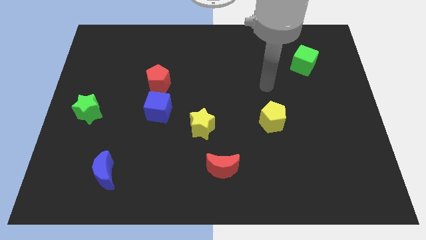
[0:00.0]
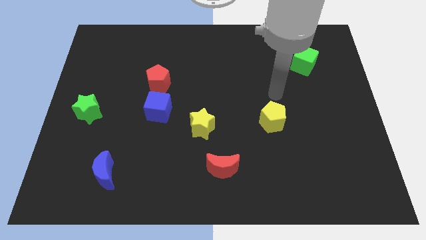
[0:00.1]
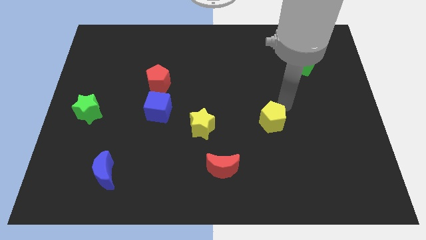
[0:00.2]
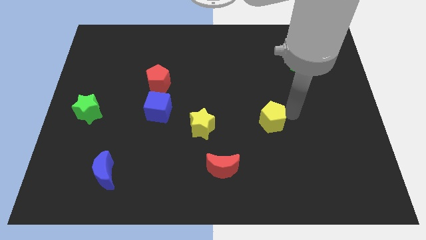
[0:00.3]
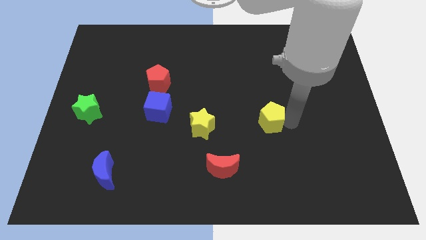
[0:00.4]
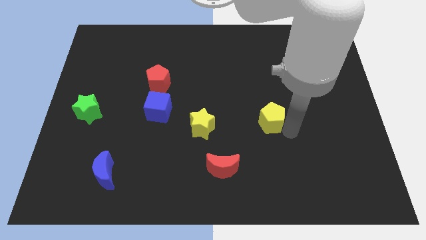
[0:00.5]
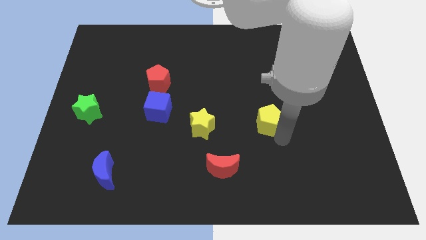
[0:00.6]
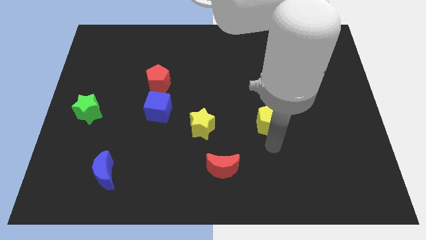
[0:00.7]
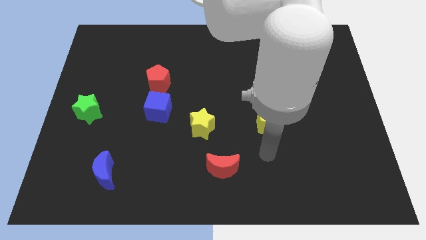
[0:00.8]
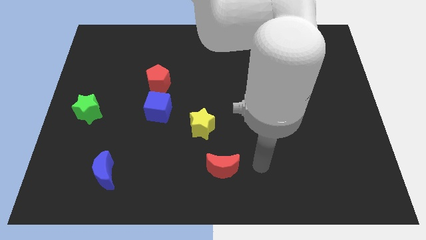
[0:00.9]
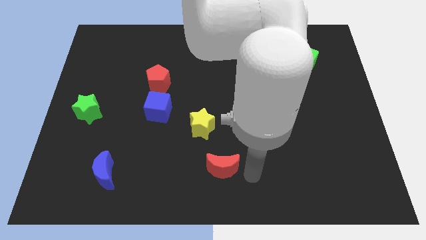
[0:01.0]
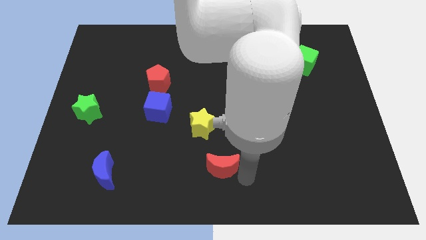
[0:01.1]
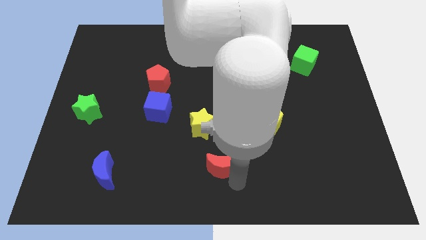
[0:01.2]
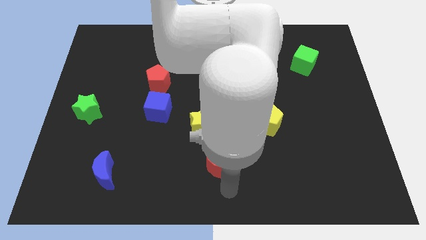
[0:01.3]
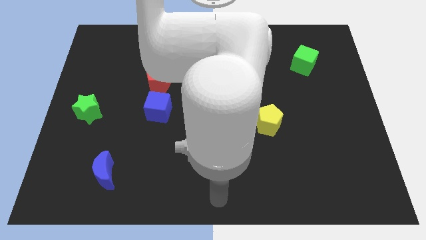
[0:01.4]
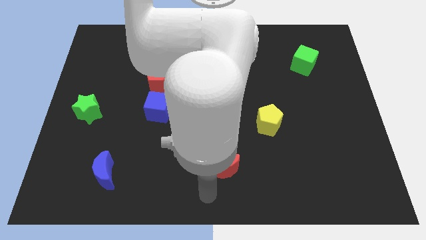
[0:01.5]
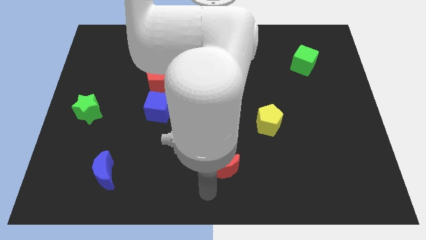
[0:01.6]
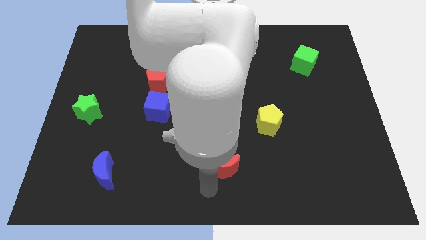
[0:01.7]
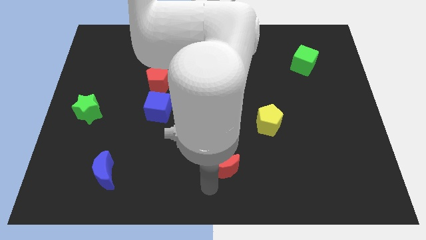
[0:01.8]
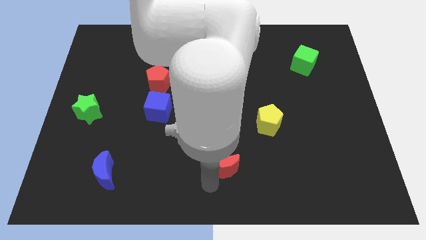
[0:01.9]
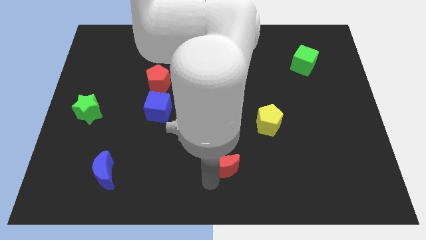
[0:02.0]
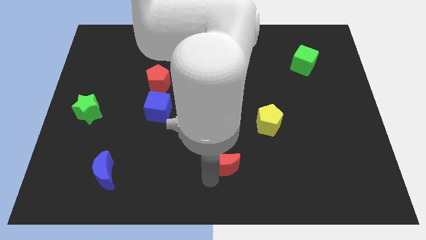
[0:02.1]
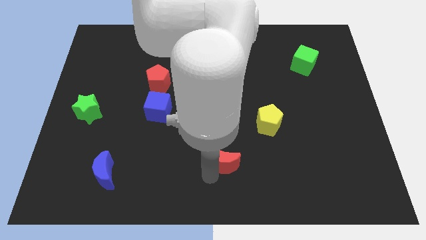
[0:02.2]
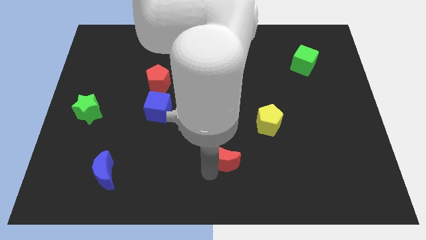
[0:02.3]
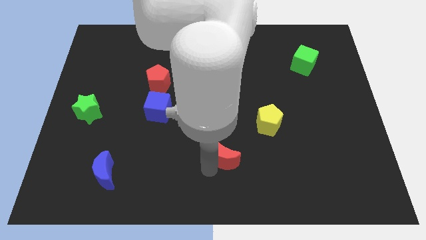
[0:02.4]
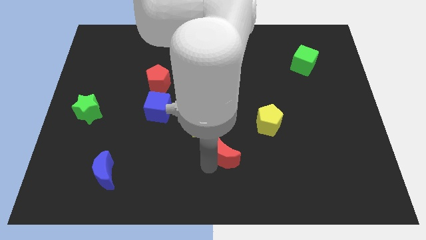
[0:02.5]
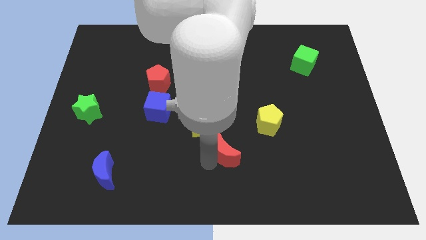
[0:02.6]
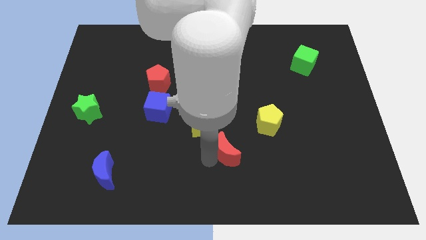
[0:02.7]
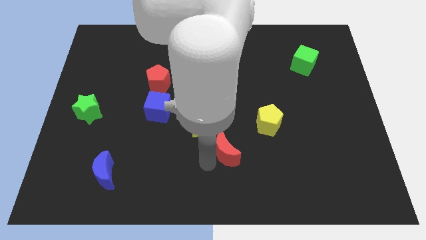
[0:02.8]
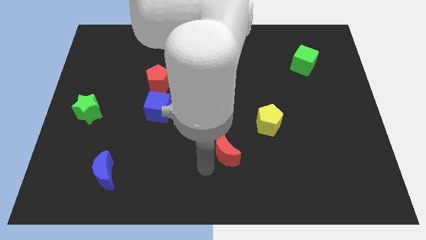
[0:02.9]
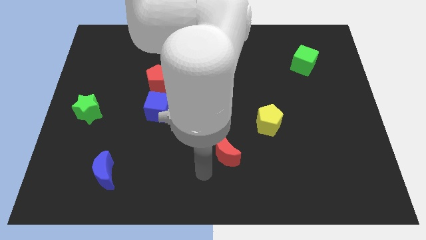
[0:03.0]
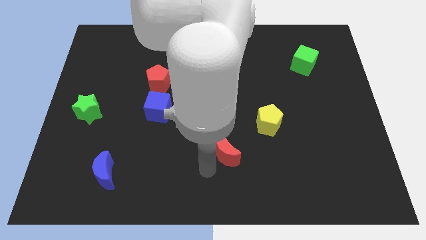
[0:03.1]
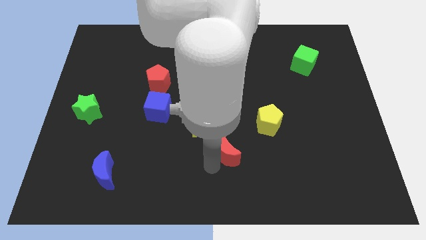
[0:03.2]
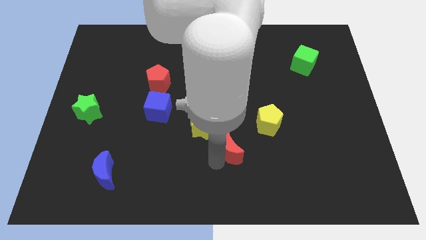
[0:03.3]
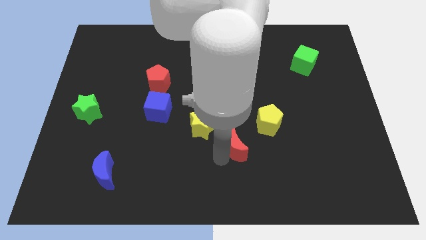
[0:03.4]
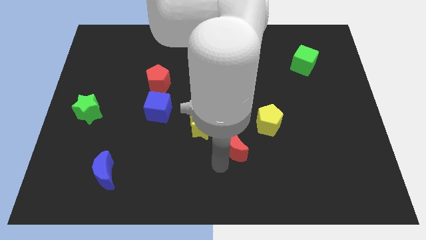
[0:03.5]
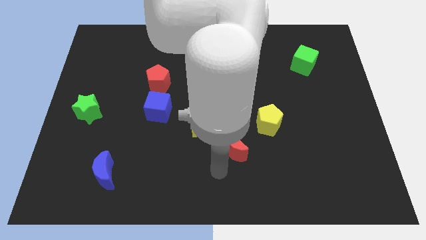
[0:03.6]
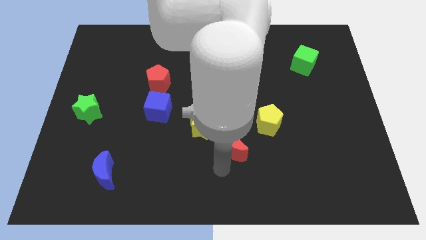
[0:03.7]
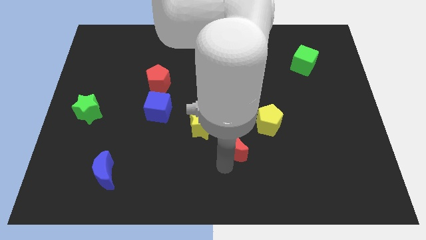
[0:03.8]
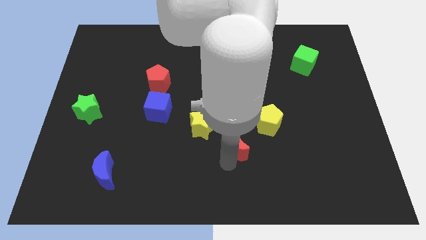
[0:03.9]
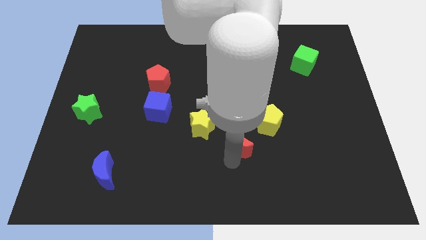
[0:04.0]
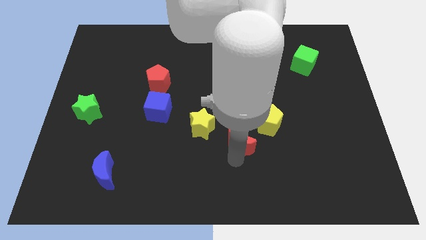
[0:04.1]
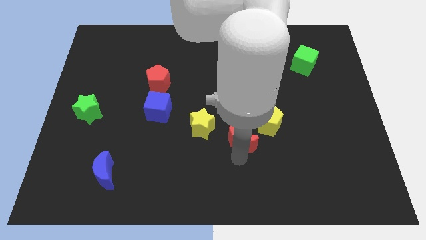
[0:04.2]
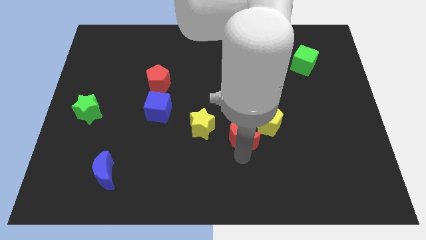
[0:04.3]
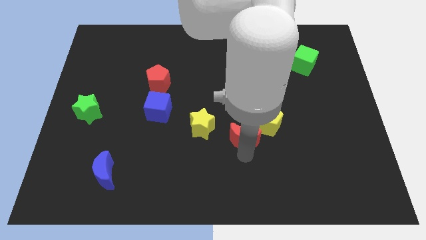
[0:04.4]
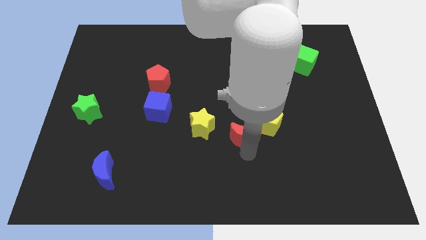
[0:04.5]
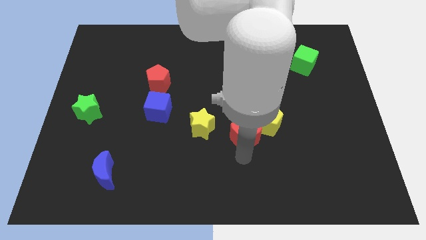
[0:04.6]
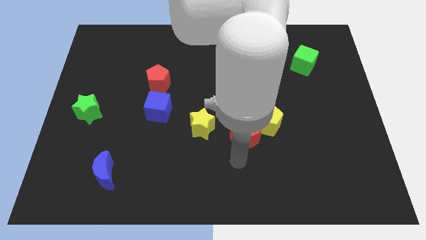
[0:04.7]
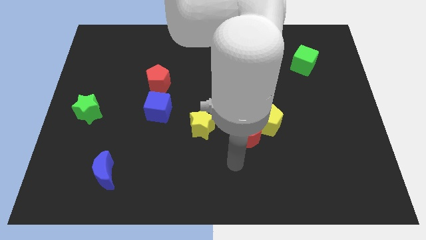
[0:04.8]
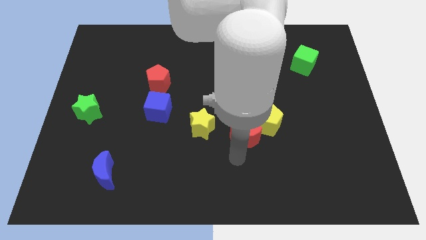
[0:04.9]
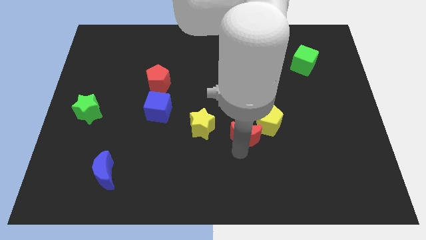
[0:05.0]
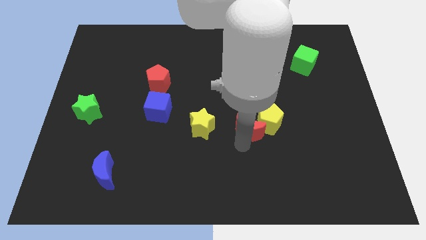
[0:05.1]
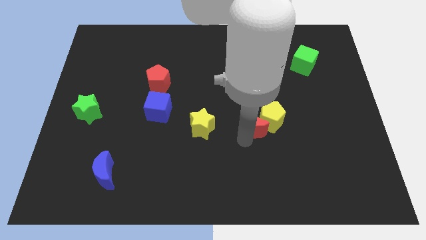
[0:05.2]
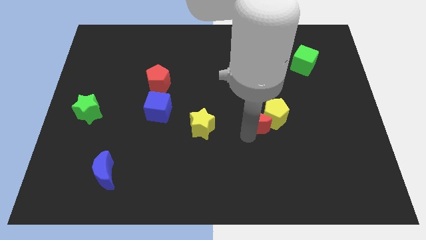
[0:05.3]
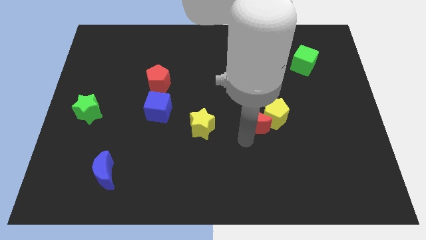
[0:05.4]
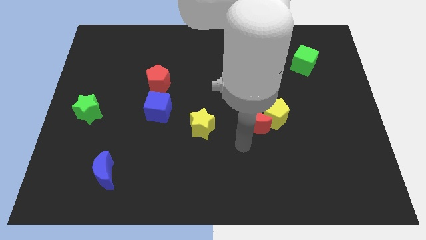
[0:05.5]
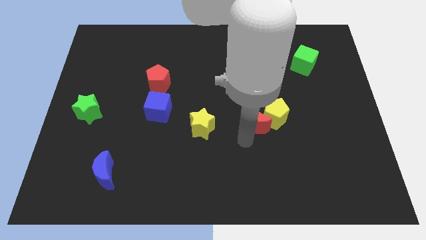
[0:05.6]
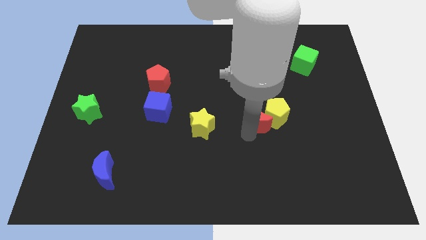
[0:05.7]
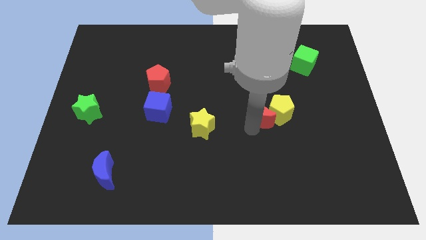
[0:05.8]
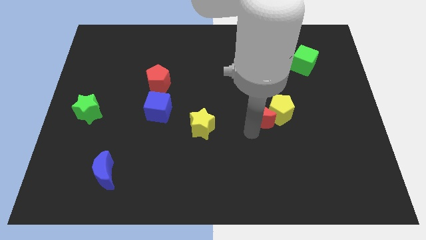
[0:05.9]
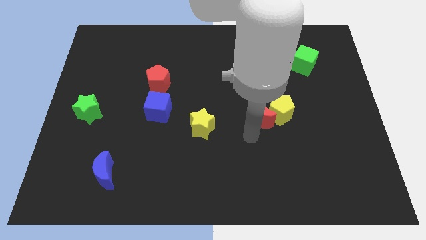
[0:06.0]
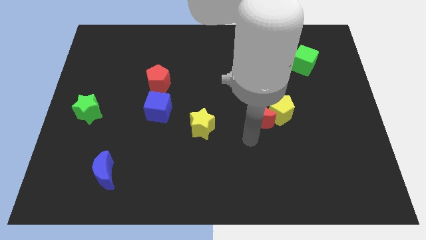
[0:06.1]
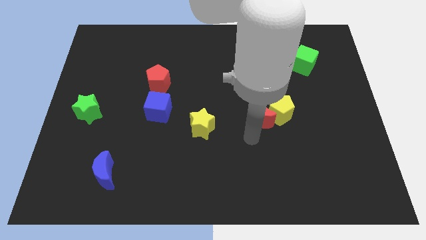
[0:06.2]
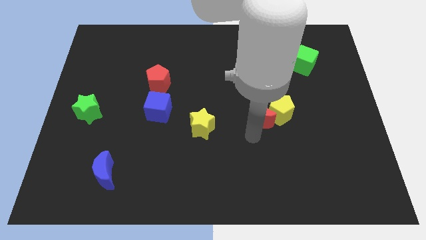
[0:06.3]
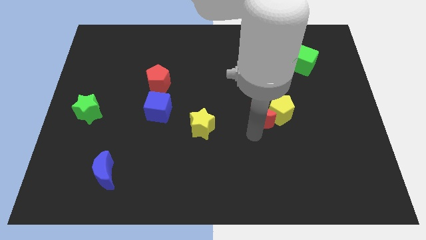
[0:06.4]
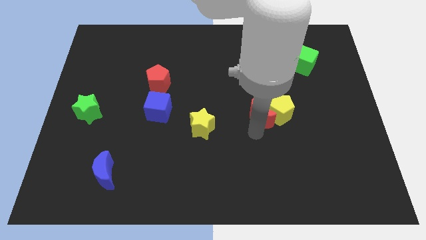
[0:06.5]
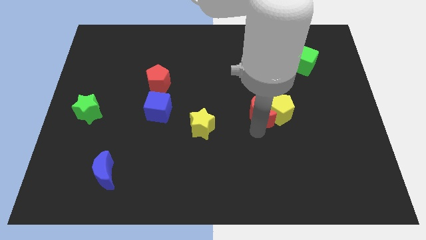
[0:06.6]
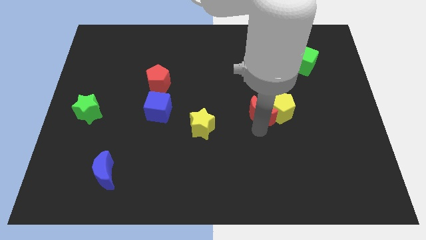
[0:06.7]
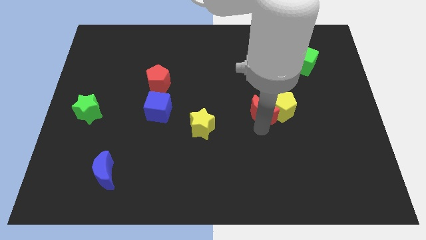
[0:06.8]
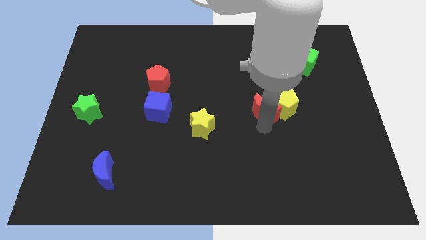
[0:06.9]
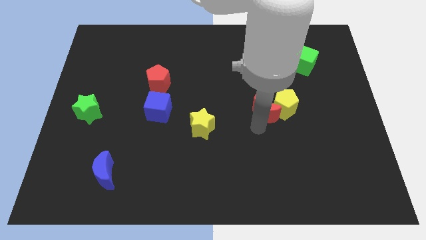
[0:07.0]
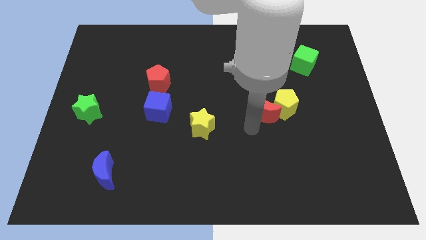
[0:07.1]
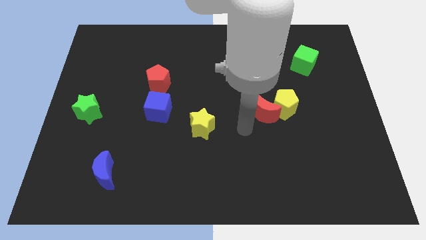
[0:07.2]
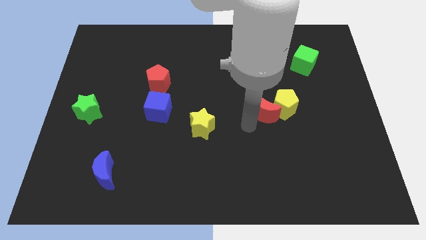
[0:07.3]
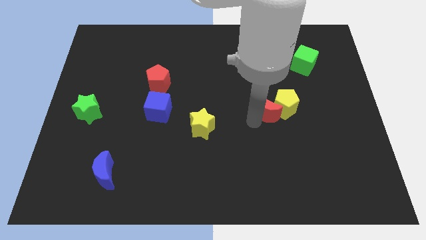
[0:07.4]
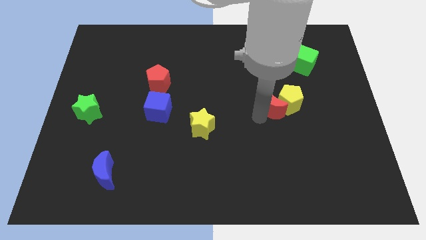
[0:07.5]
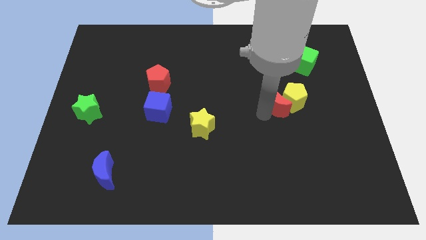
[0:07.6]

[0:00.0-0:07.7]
slide the red moon diagonally up and right

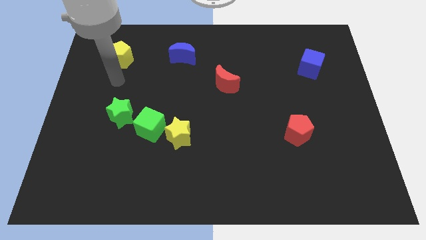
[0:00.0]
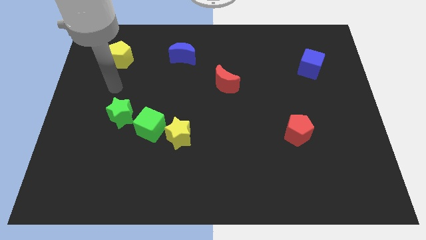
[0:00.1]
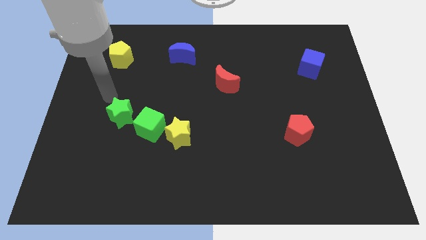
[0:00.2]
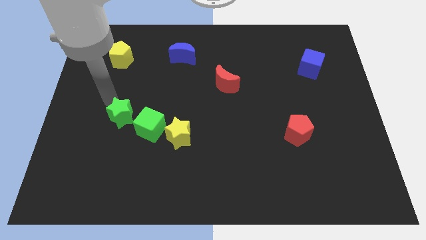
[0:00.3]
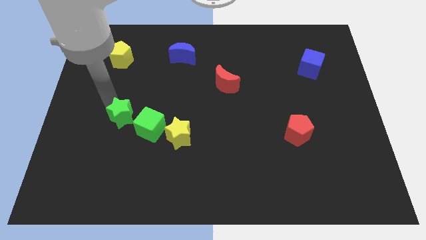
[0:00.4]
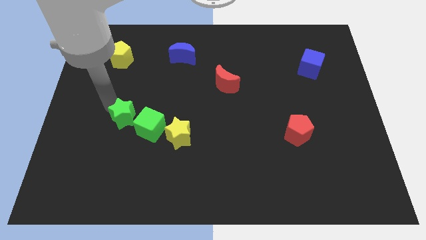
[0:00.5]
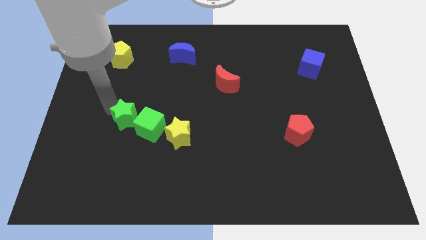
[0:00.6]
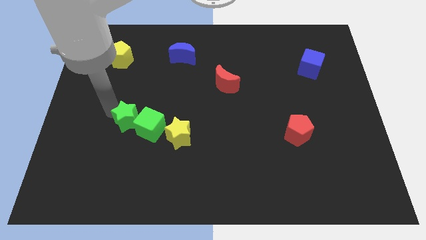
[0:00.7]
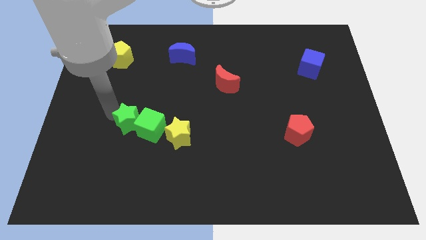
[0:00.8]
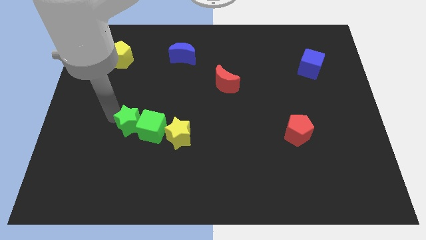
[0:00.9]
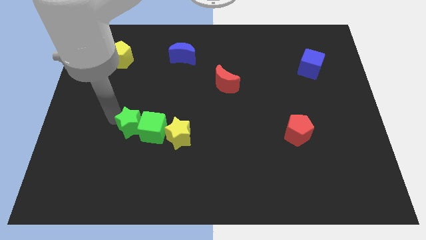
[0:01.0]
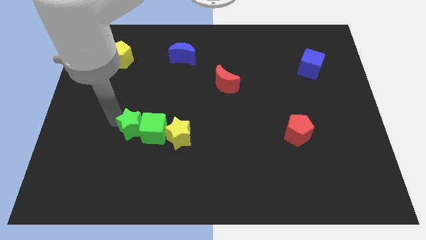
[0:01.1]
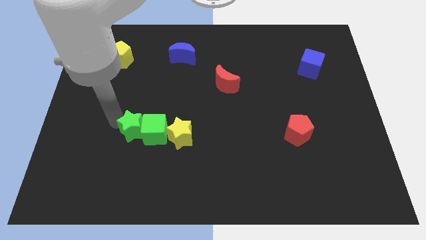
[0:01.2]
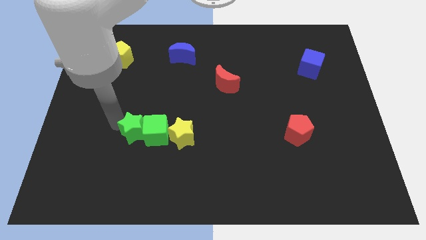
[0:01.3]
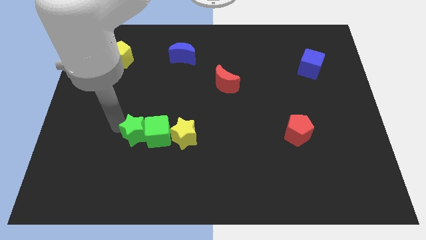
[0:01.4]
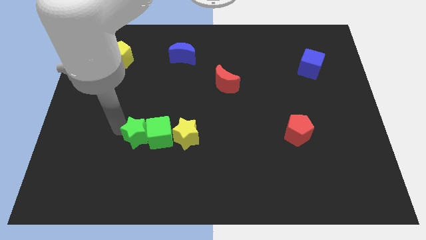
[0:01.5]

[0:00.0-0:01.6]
move the green star down and then right a little
